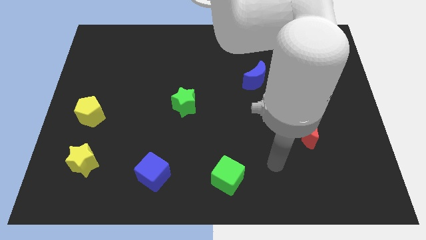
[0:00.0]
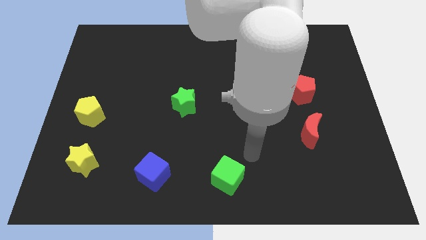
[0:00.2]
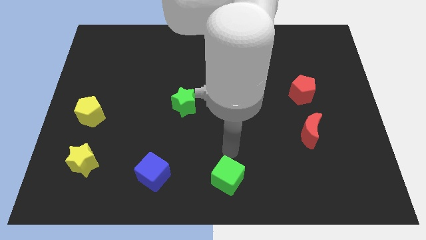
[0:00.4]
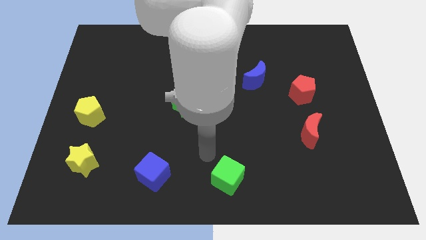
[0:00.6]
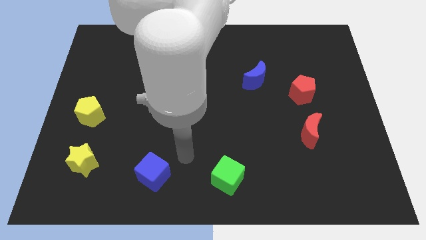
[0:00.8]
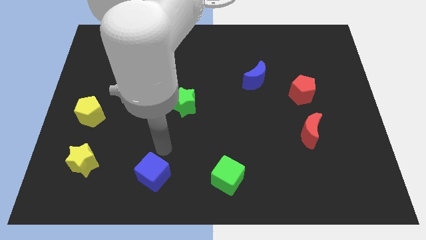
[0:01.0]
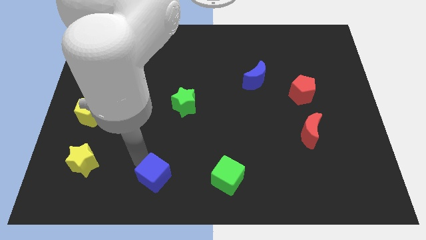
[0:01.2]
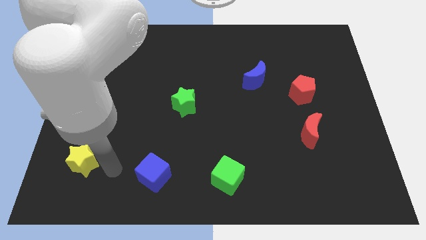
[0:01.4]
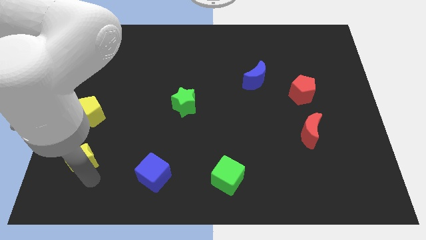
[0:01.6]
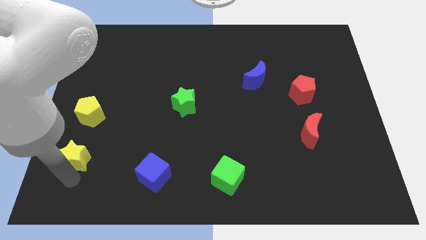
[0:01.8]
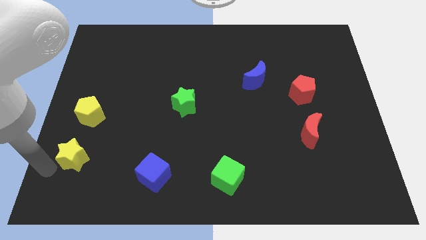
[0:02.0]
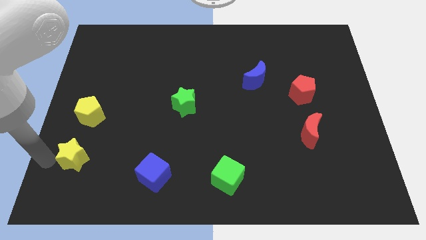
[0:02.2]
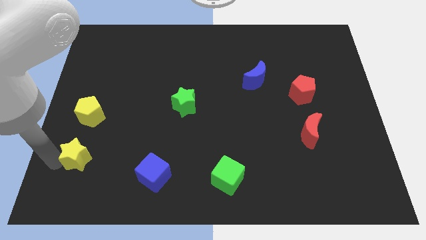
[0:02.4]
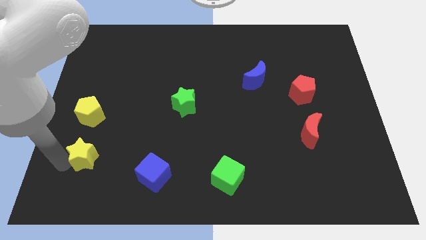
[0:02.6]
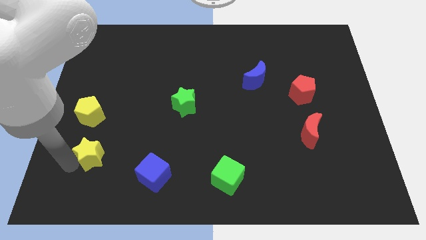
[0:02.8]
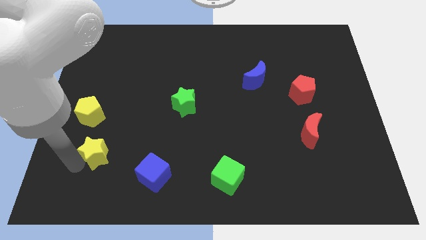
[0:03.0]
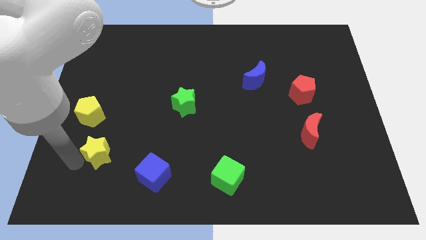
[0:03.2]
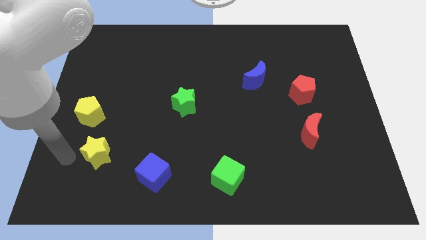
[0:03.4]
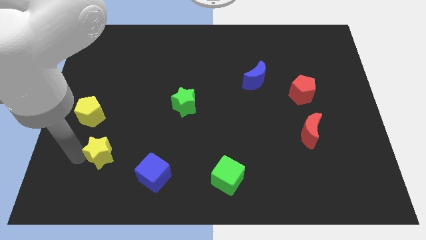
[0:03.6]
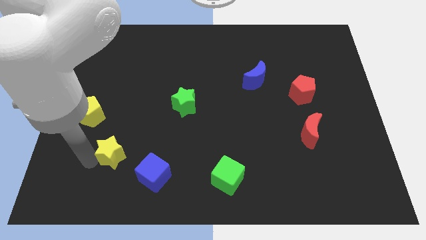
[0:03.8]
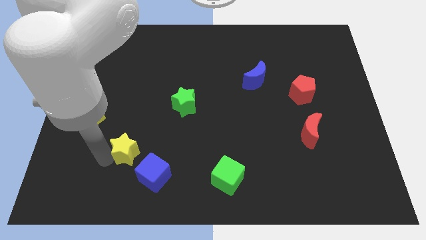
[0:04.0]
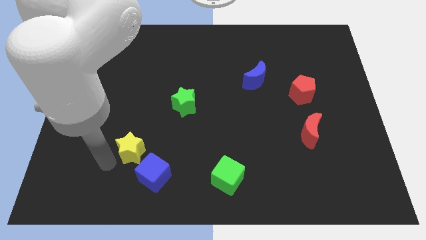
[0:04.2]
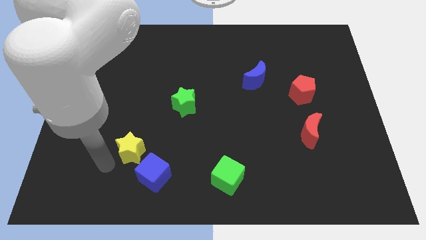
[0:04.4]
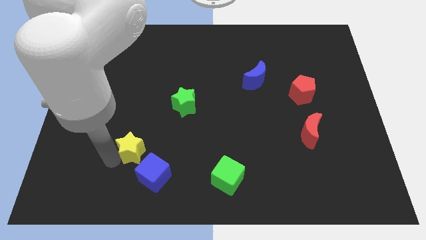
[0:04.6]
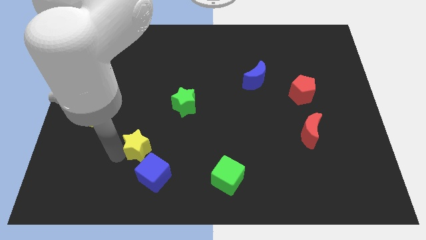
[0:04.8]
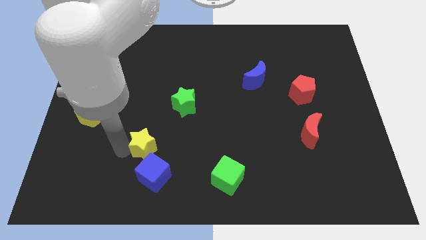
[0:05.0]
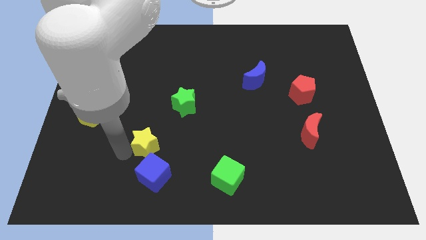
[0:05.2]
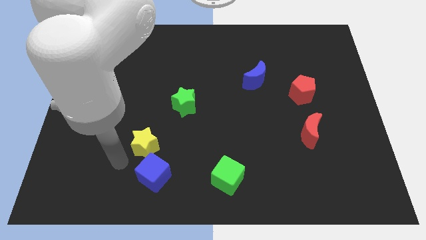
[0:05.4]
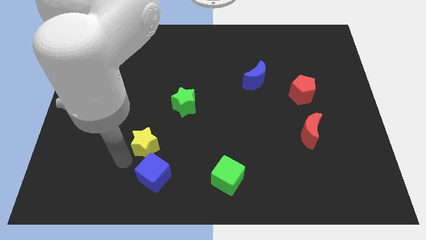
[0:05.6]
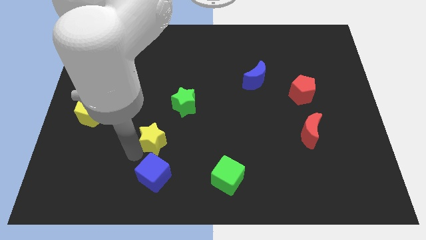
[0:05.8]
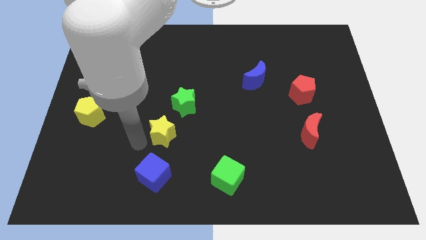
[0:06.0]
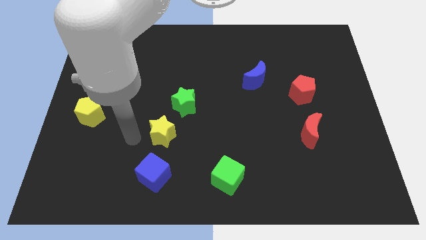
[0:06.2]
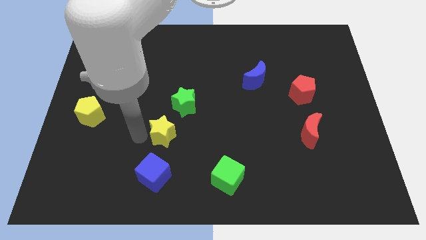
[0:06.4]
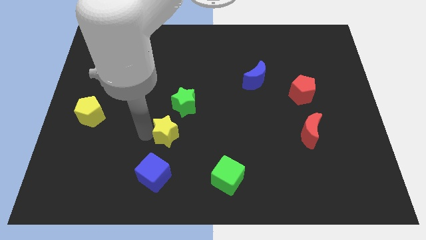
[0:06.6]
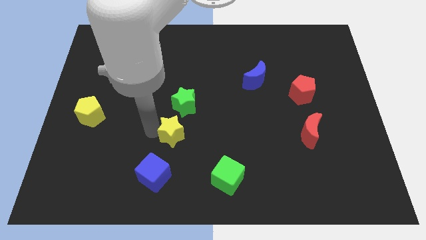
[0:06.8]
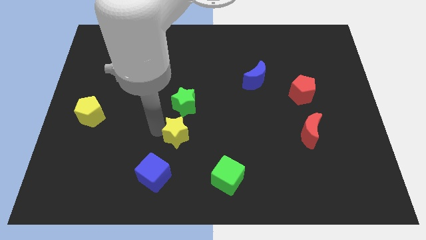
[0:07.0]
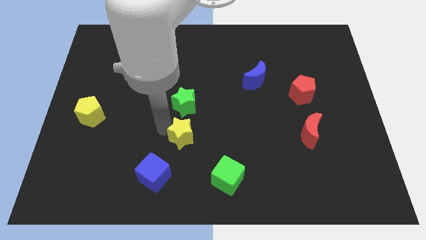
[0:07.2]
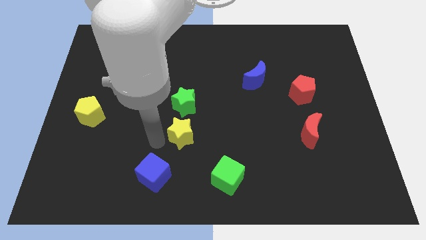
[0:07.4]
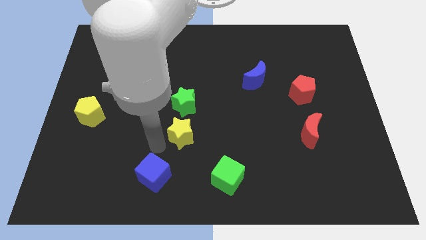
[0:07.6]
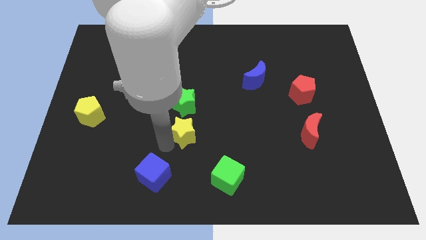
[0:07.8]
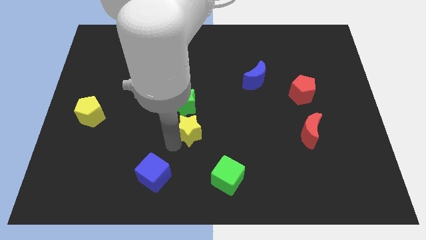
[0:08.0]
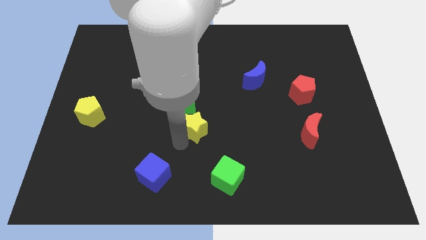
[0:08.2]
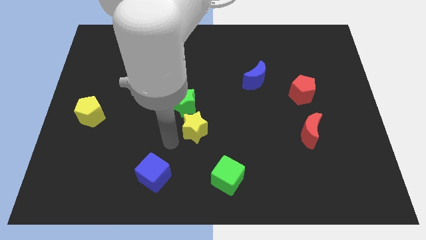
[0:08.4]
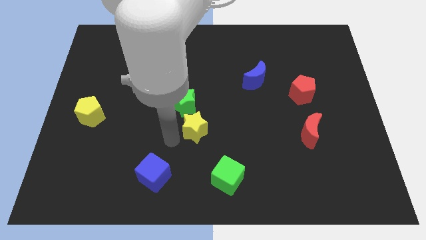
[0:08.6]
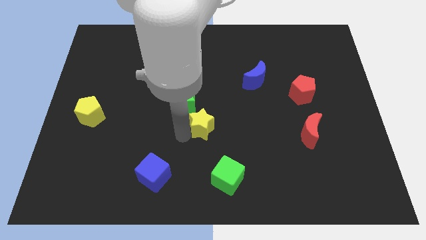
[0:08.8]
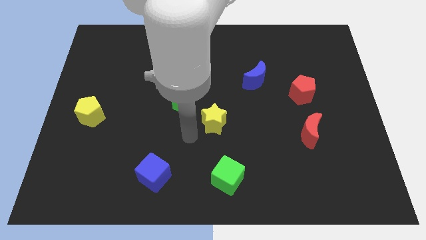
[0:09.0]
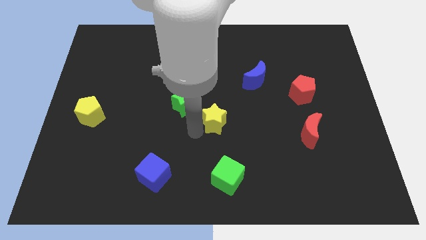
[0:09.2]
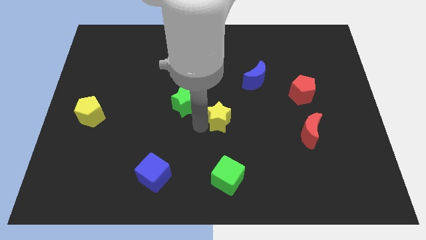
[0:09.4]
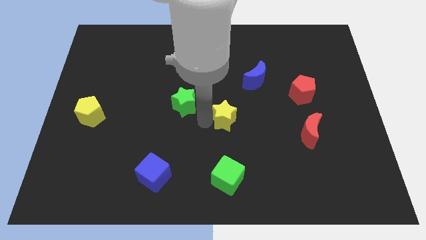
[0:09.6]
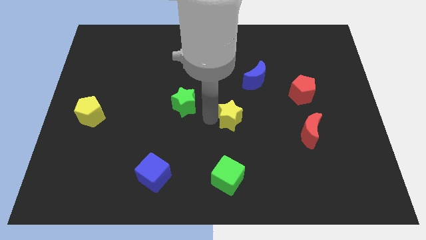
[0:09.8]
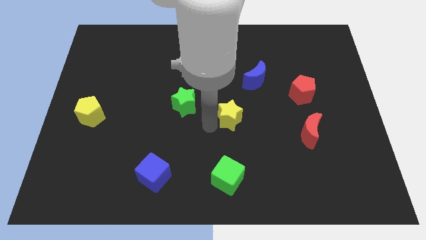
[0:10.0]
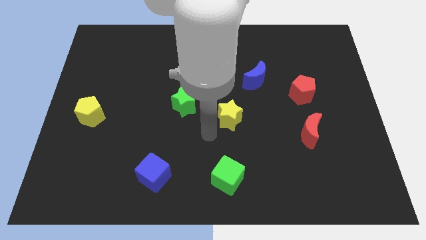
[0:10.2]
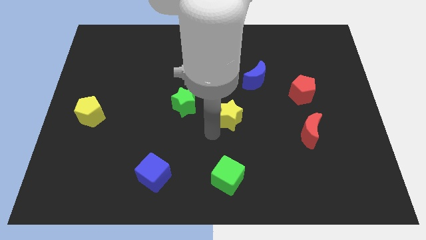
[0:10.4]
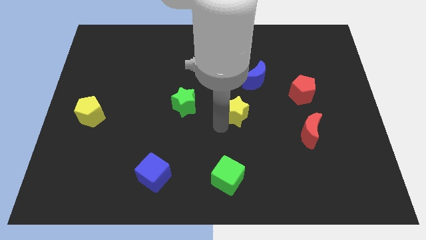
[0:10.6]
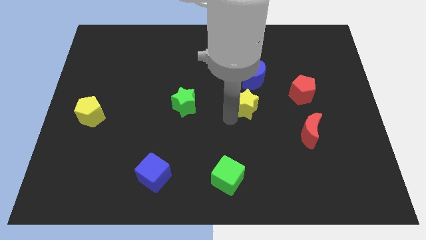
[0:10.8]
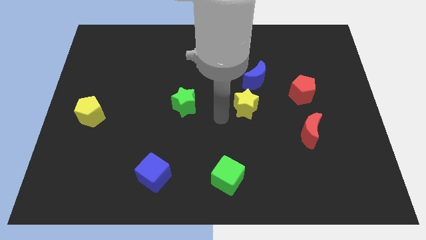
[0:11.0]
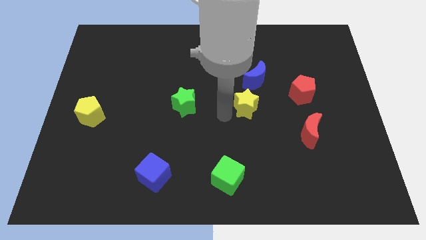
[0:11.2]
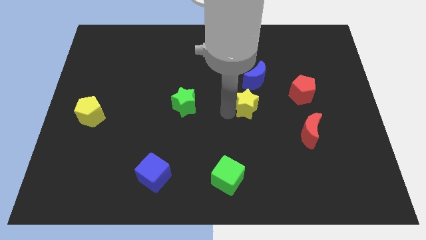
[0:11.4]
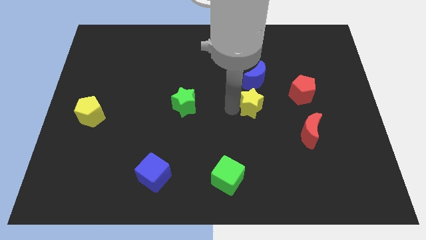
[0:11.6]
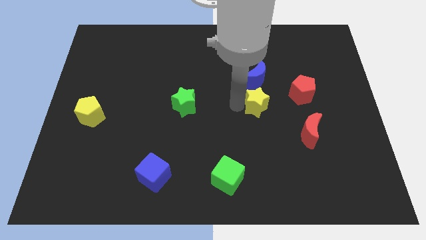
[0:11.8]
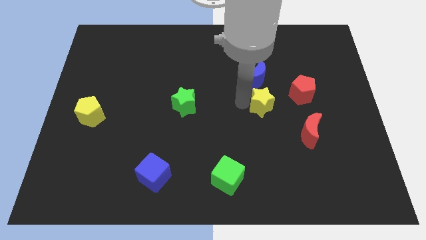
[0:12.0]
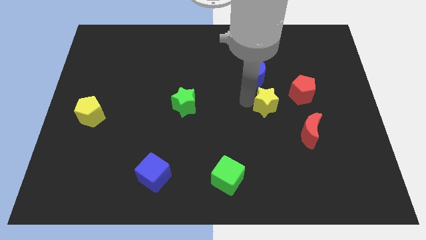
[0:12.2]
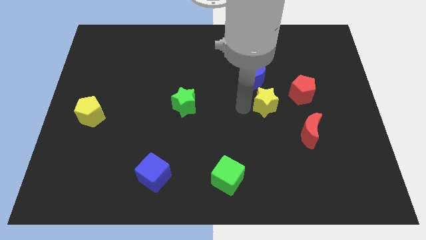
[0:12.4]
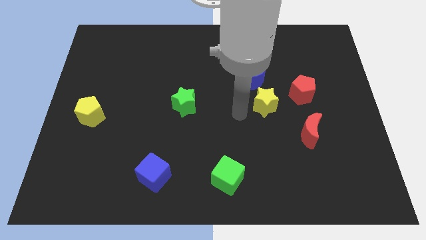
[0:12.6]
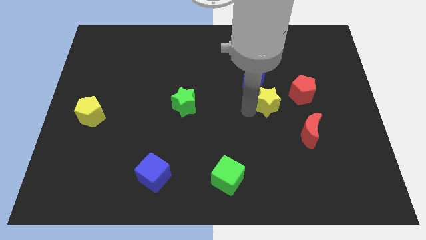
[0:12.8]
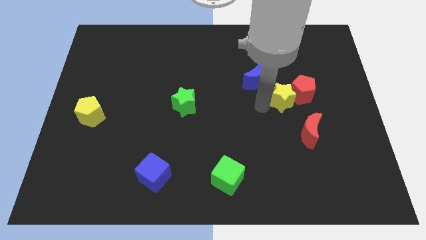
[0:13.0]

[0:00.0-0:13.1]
push the yellow star close to the red pentagon
